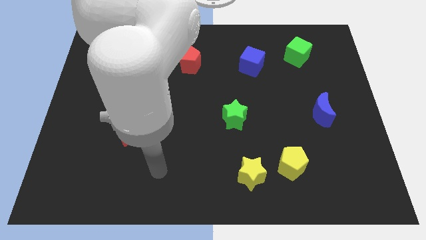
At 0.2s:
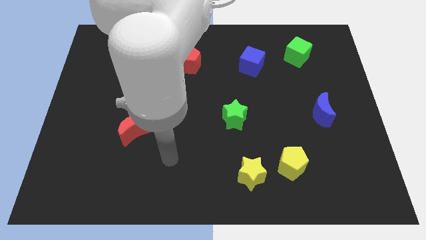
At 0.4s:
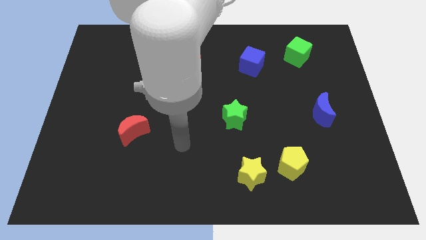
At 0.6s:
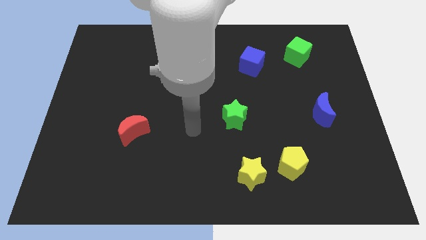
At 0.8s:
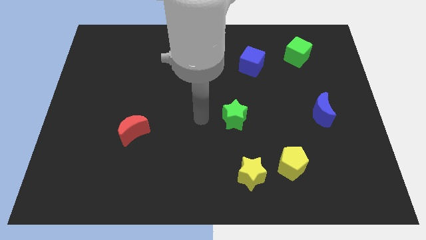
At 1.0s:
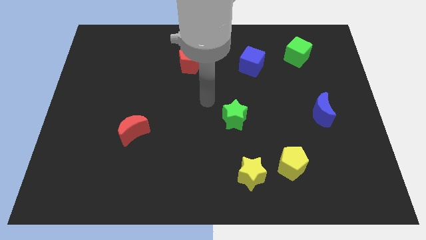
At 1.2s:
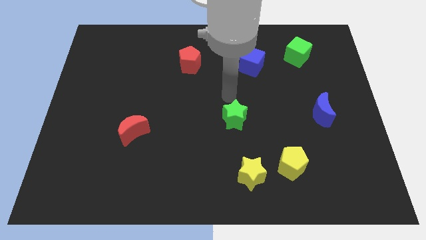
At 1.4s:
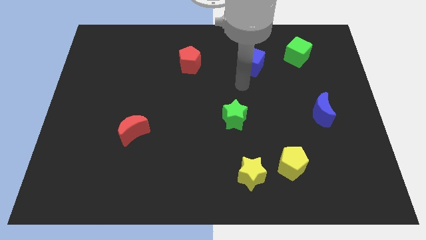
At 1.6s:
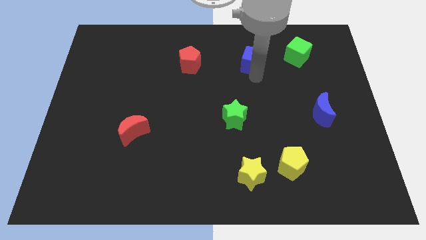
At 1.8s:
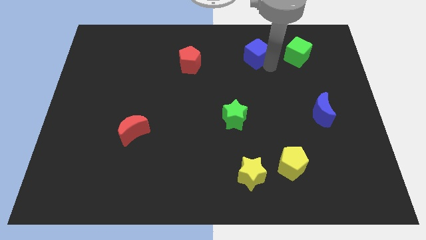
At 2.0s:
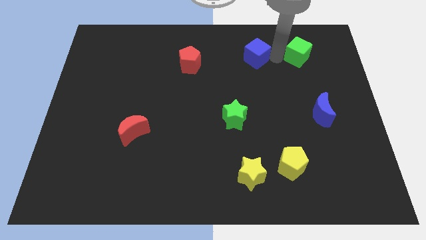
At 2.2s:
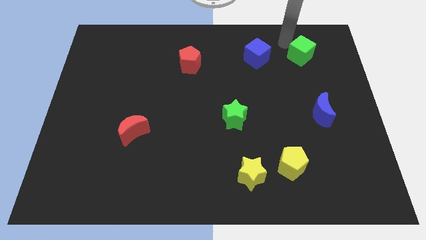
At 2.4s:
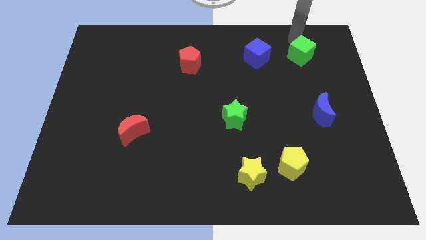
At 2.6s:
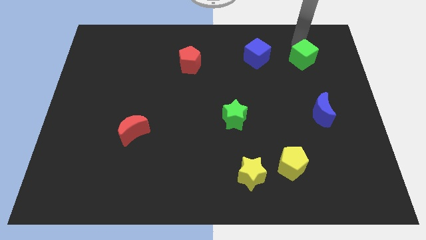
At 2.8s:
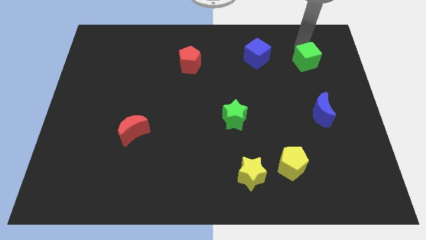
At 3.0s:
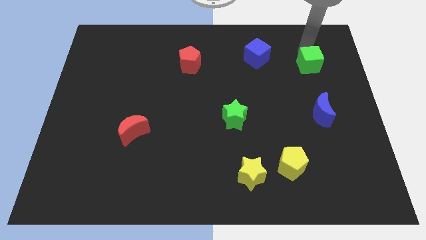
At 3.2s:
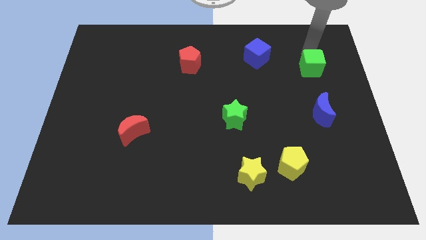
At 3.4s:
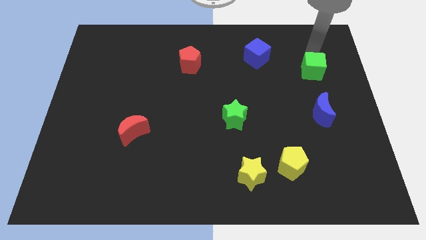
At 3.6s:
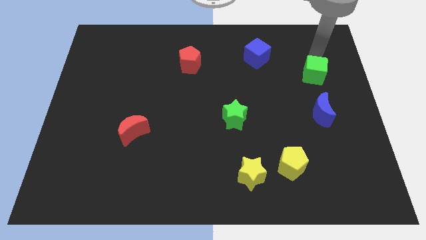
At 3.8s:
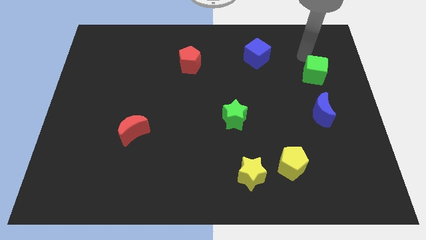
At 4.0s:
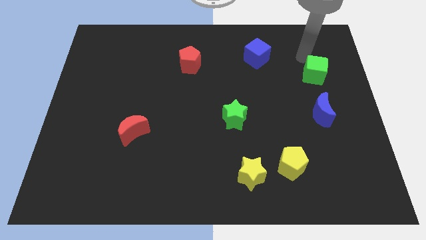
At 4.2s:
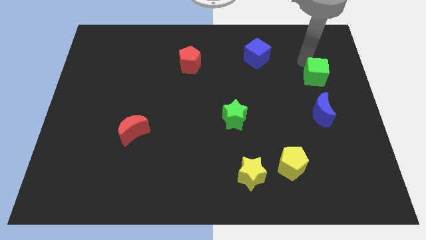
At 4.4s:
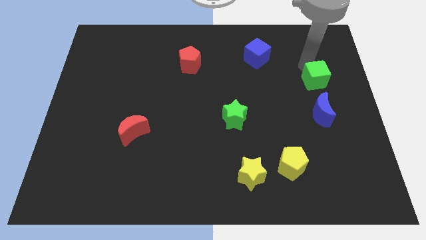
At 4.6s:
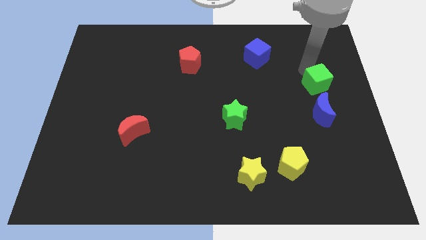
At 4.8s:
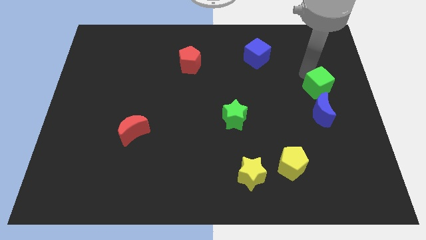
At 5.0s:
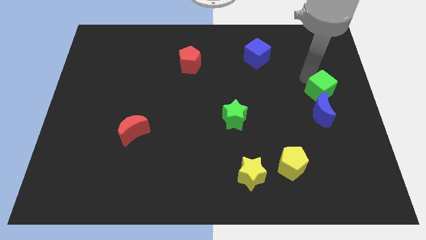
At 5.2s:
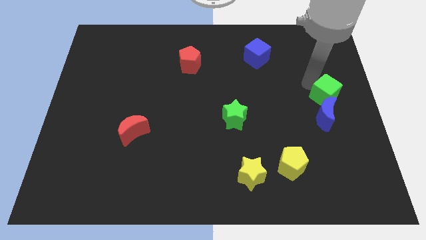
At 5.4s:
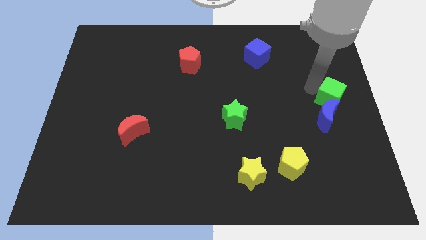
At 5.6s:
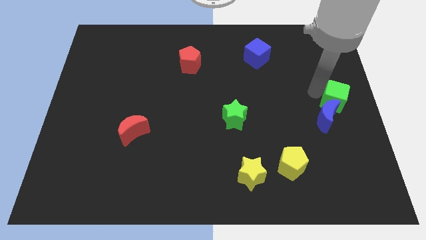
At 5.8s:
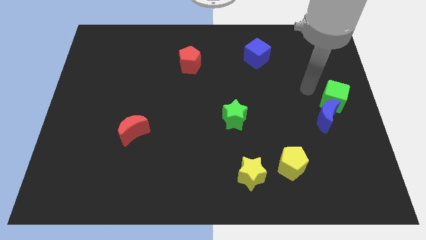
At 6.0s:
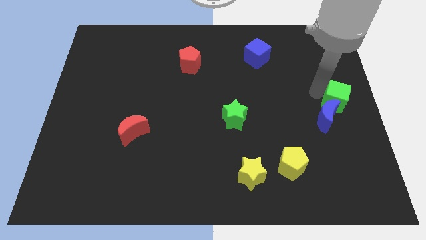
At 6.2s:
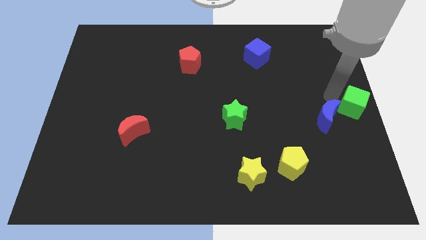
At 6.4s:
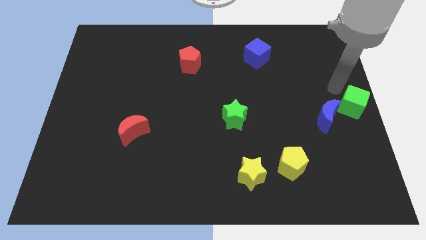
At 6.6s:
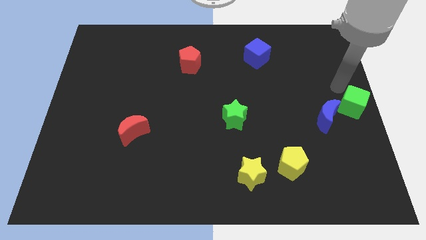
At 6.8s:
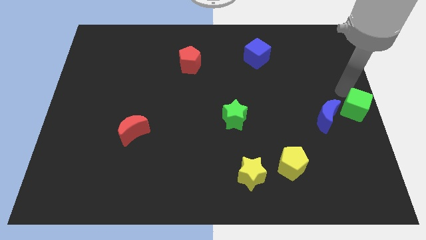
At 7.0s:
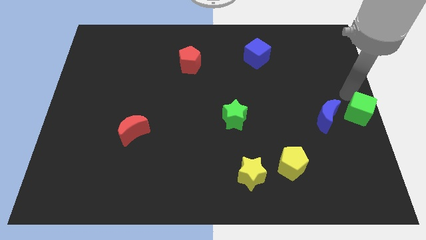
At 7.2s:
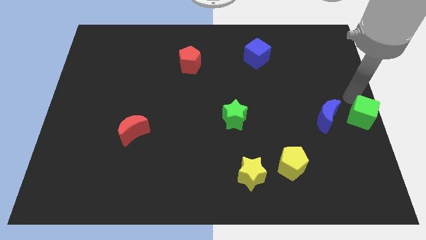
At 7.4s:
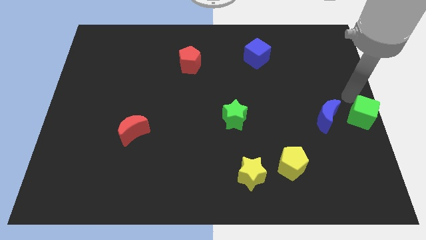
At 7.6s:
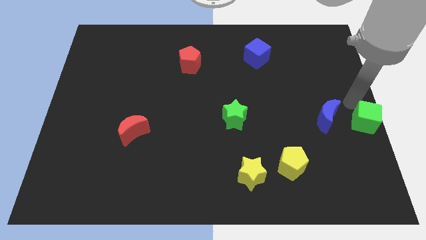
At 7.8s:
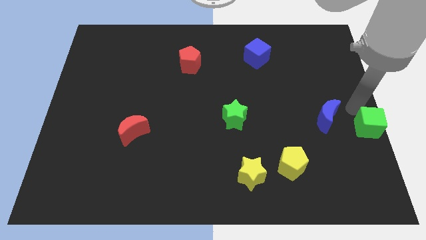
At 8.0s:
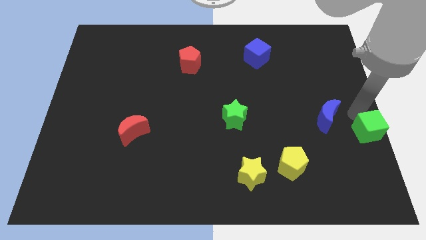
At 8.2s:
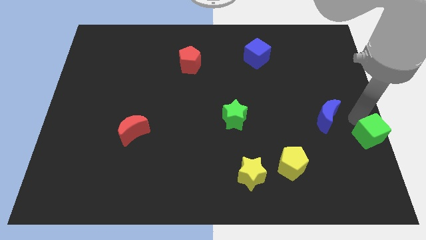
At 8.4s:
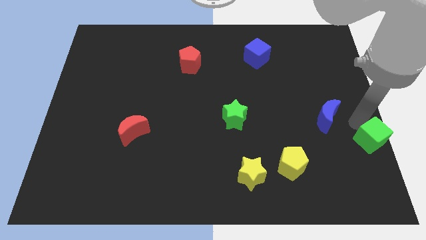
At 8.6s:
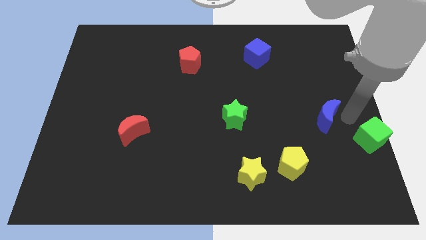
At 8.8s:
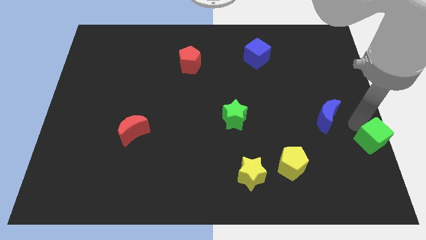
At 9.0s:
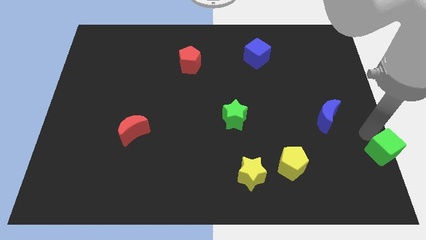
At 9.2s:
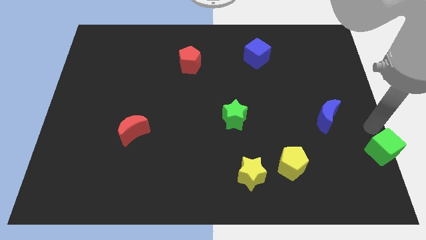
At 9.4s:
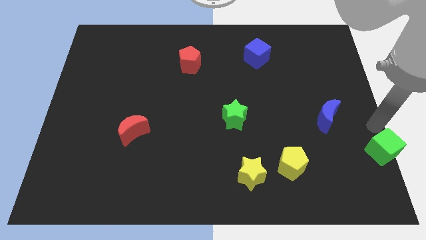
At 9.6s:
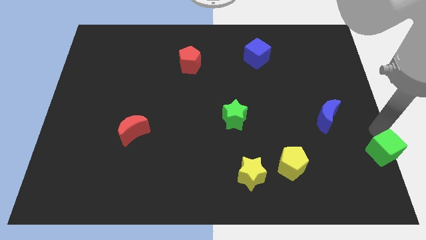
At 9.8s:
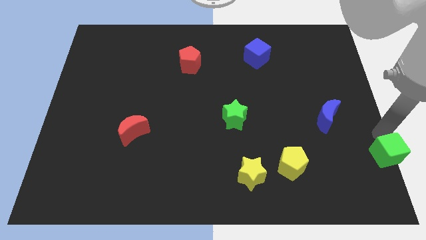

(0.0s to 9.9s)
push the green cube to the bottom right corner

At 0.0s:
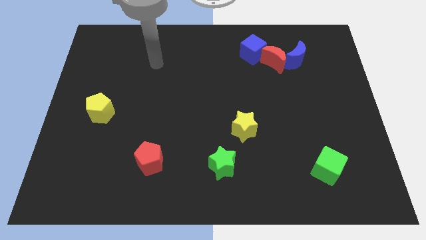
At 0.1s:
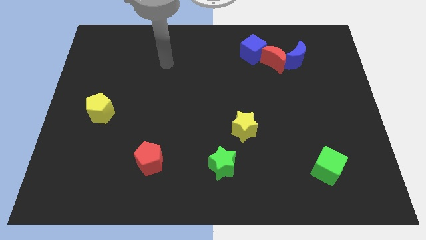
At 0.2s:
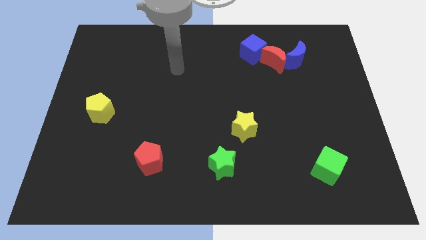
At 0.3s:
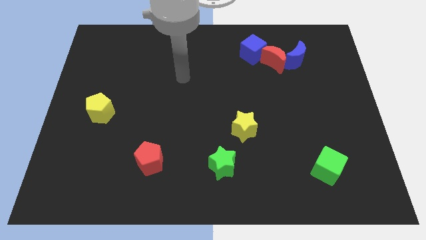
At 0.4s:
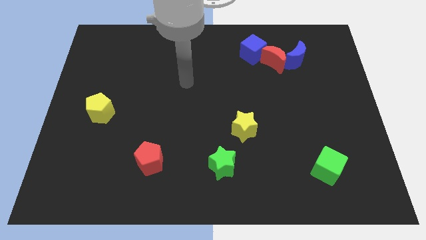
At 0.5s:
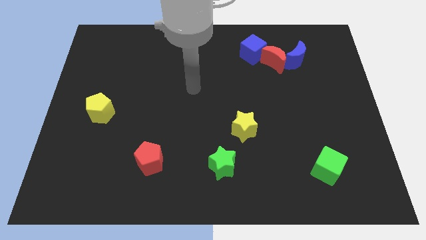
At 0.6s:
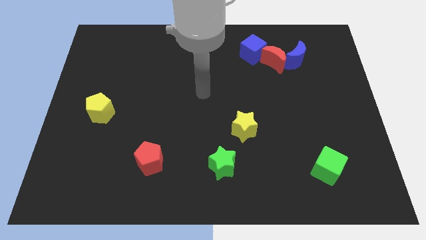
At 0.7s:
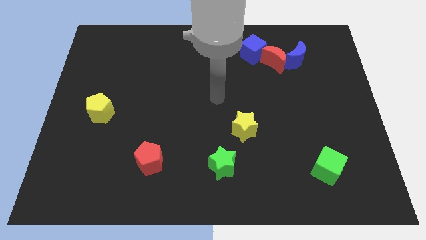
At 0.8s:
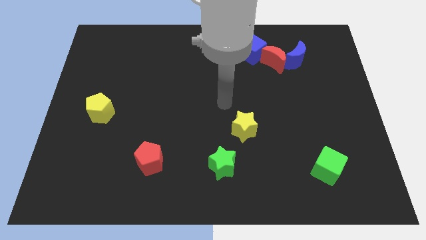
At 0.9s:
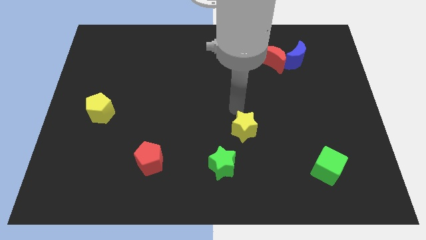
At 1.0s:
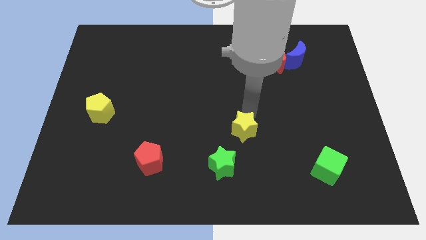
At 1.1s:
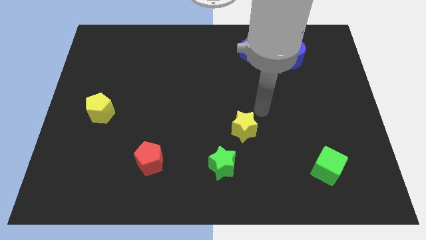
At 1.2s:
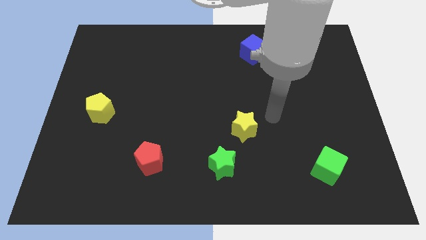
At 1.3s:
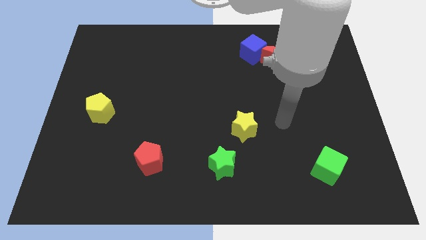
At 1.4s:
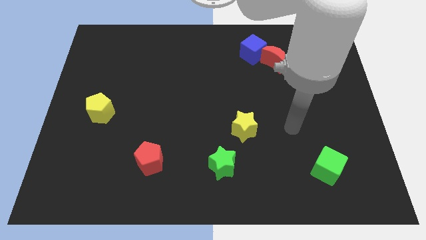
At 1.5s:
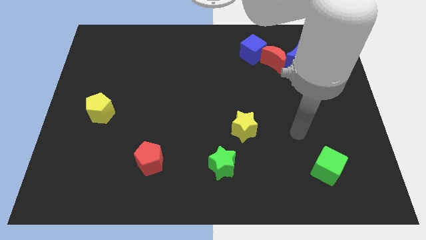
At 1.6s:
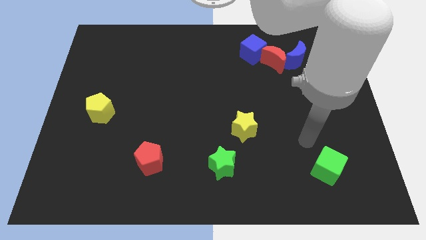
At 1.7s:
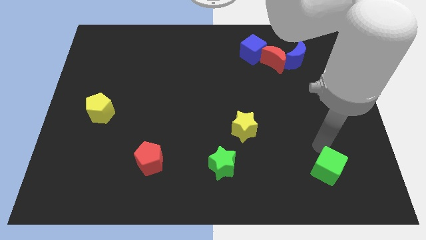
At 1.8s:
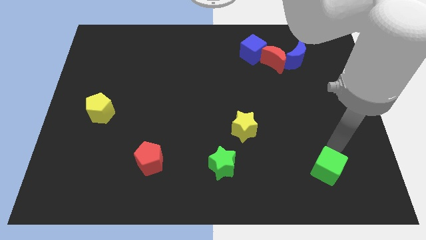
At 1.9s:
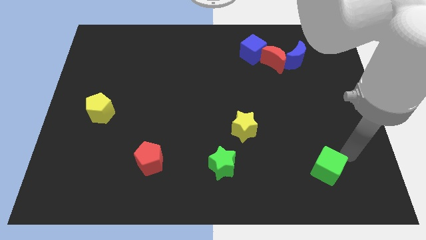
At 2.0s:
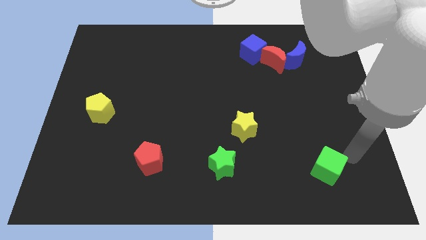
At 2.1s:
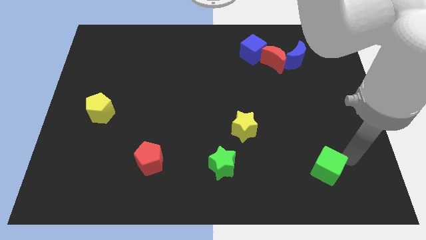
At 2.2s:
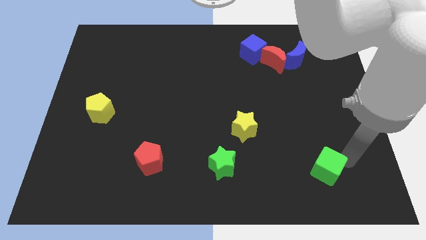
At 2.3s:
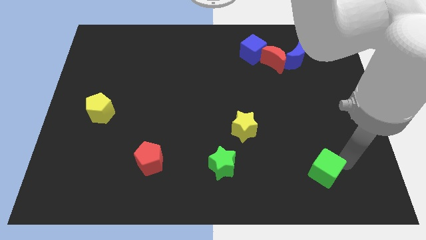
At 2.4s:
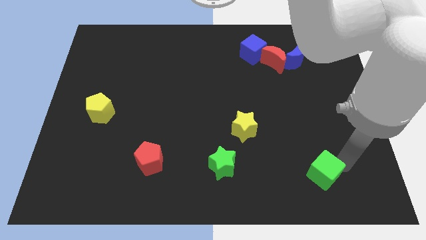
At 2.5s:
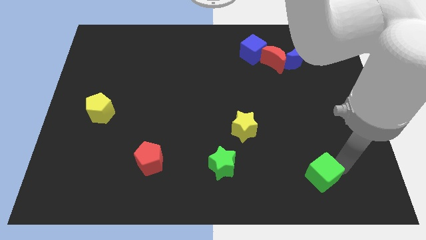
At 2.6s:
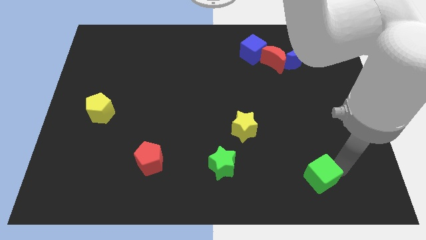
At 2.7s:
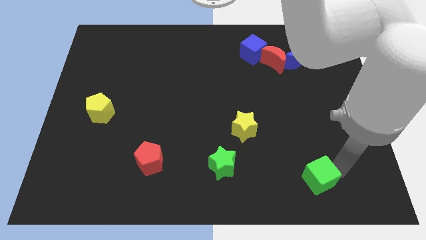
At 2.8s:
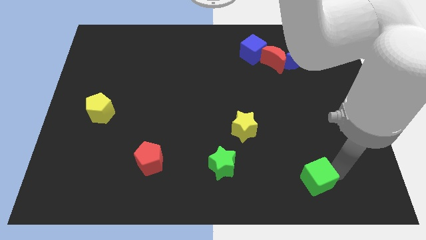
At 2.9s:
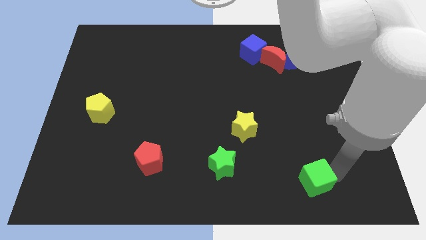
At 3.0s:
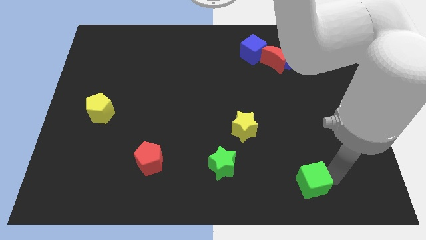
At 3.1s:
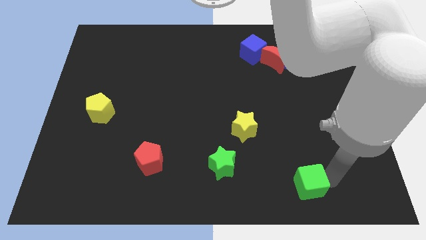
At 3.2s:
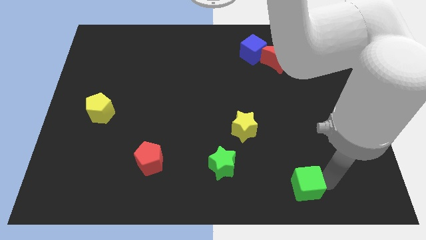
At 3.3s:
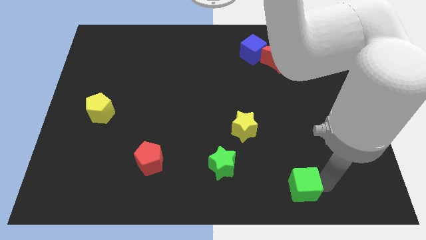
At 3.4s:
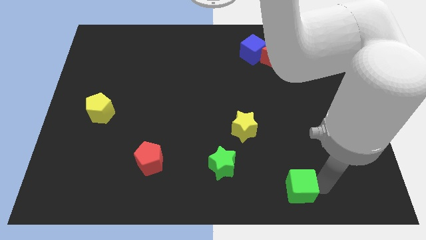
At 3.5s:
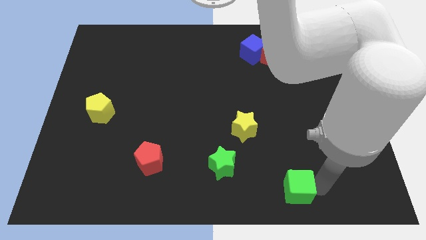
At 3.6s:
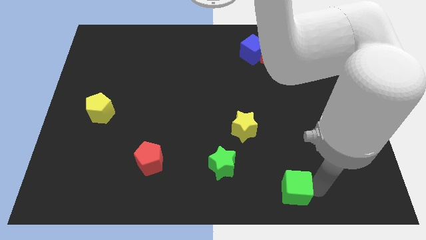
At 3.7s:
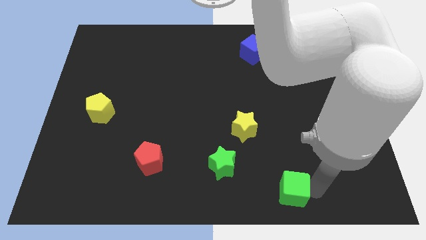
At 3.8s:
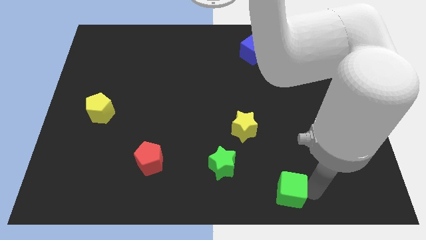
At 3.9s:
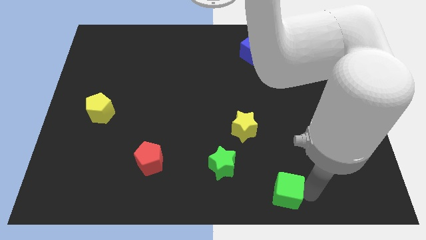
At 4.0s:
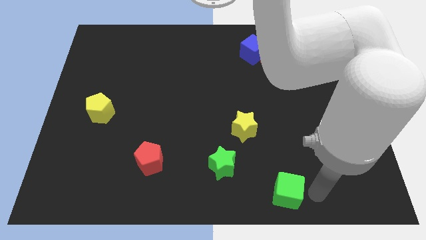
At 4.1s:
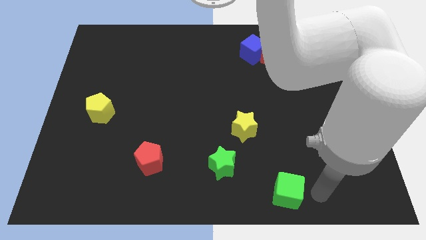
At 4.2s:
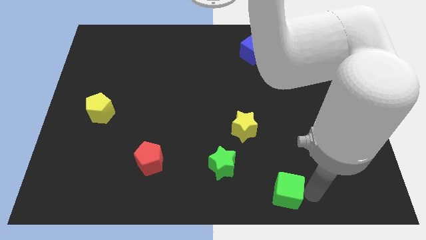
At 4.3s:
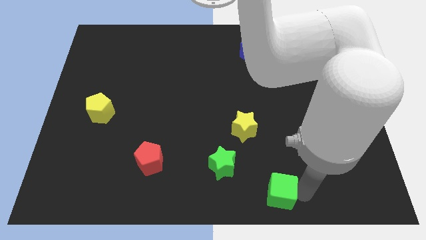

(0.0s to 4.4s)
put the green cube to the bottom
